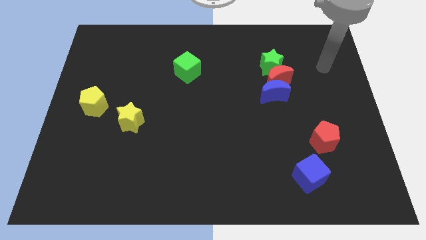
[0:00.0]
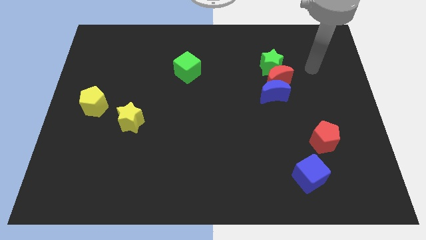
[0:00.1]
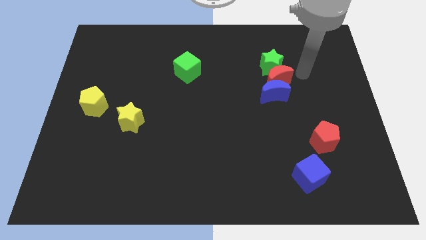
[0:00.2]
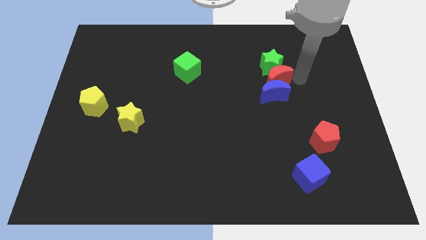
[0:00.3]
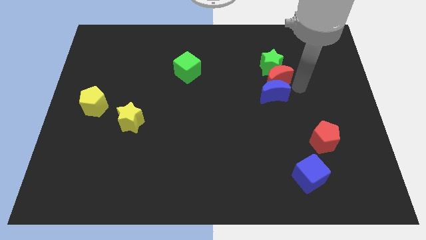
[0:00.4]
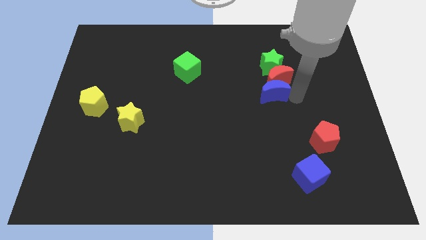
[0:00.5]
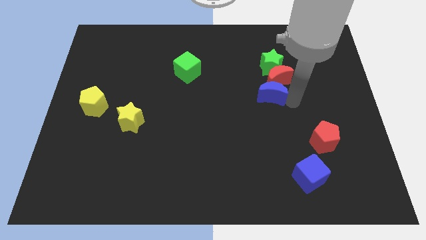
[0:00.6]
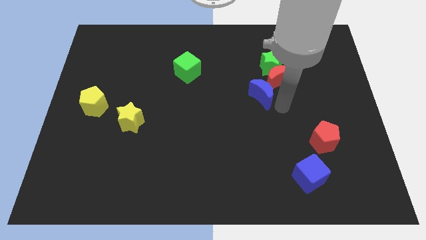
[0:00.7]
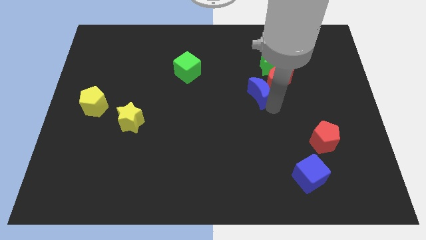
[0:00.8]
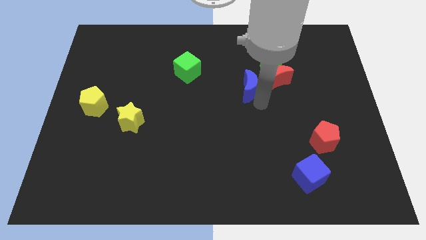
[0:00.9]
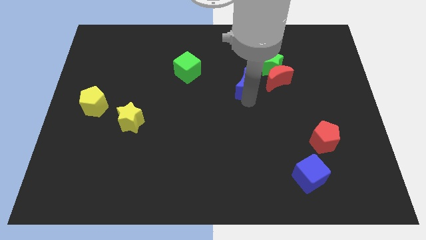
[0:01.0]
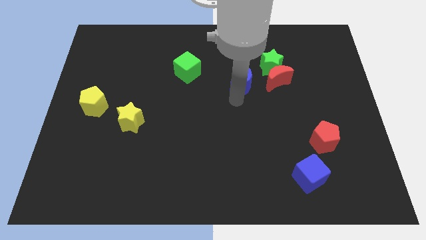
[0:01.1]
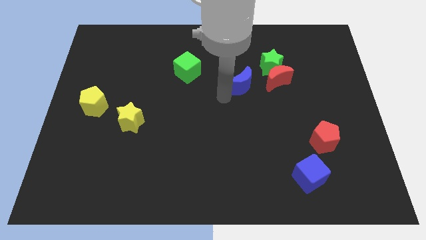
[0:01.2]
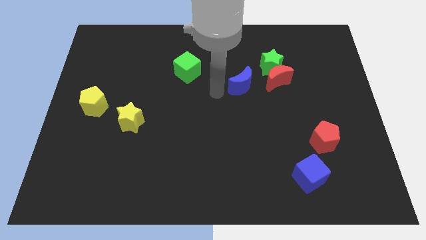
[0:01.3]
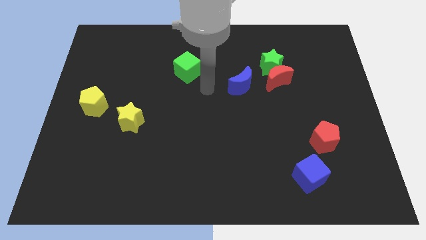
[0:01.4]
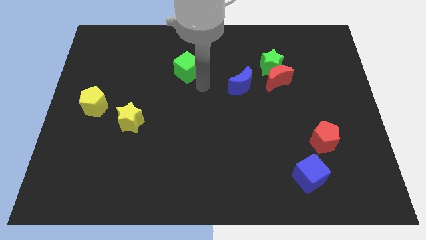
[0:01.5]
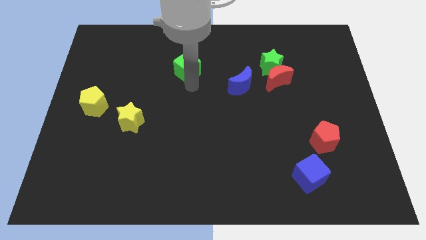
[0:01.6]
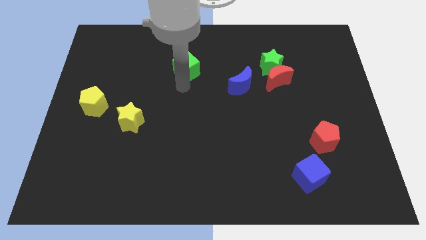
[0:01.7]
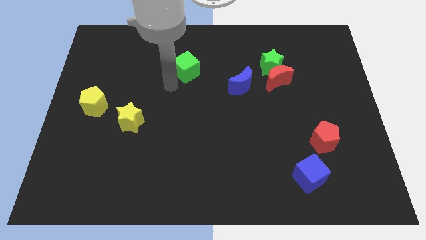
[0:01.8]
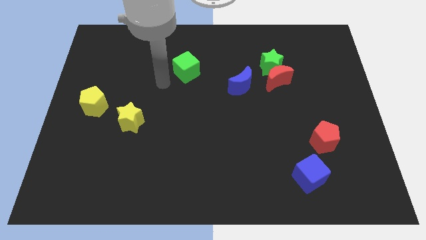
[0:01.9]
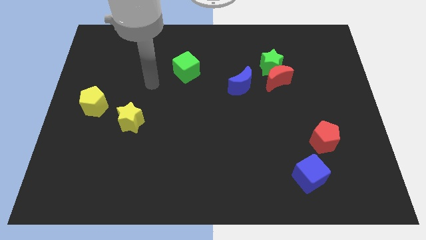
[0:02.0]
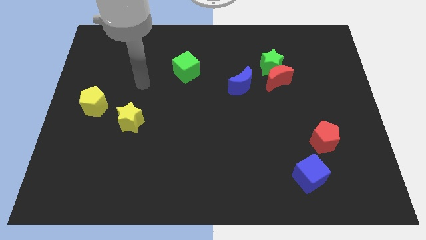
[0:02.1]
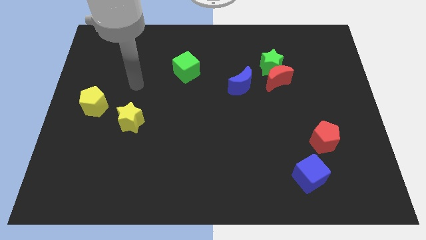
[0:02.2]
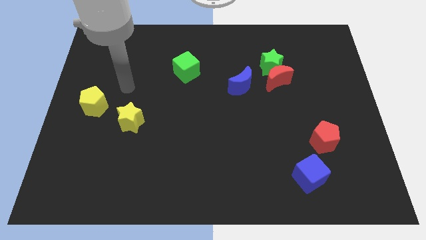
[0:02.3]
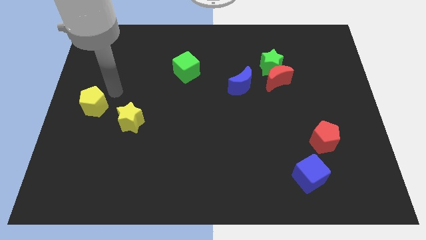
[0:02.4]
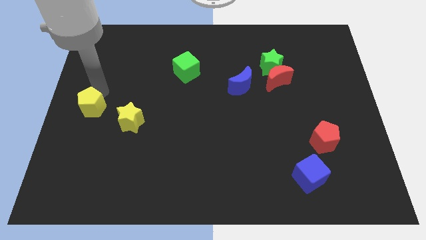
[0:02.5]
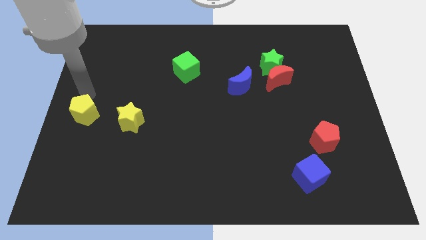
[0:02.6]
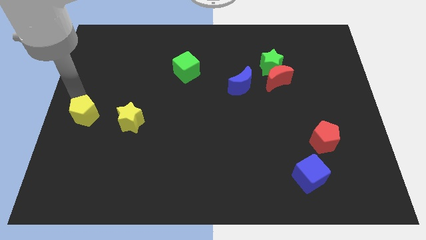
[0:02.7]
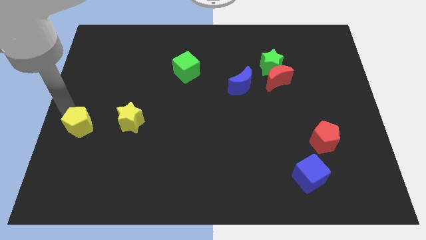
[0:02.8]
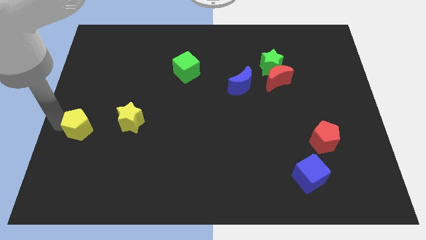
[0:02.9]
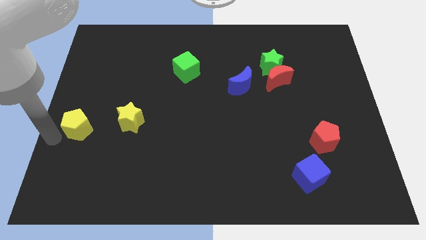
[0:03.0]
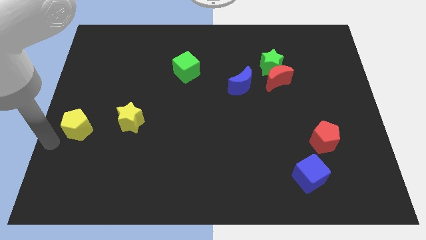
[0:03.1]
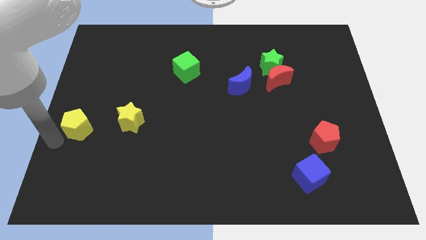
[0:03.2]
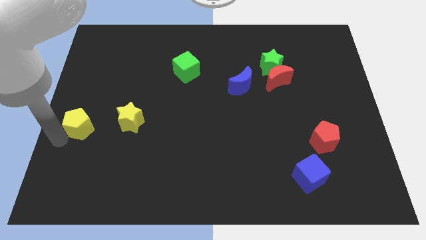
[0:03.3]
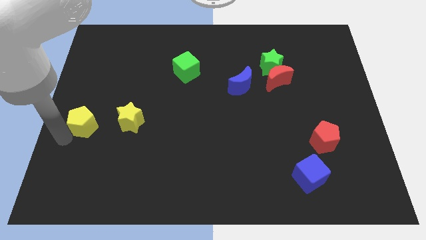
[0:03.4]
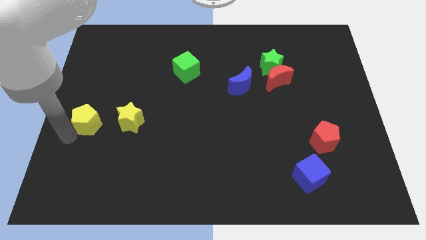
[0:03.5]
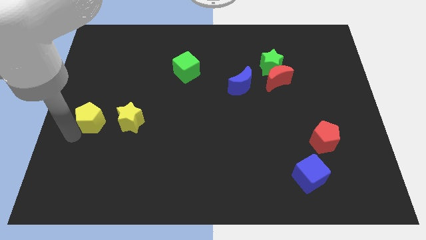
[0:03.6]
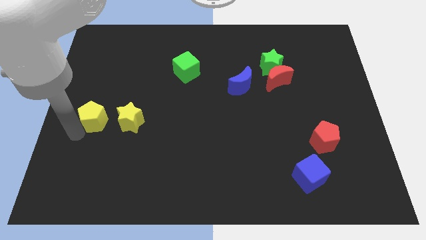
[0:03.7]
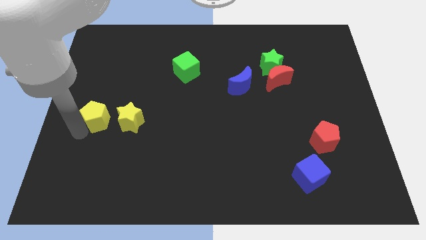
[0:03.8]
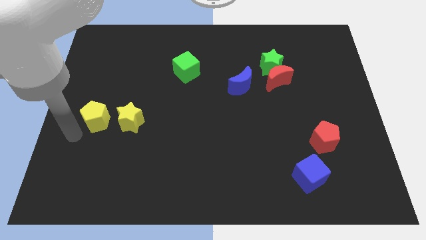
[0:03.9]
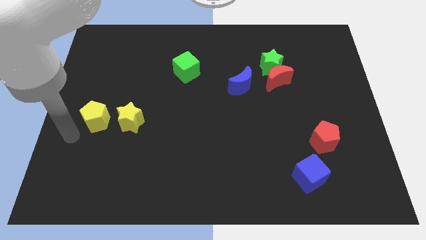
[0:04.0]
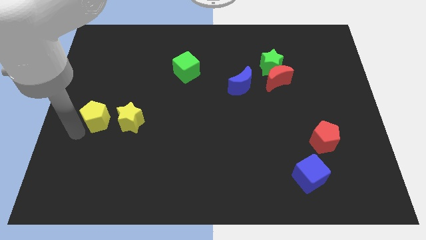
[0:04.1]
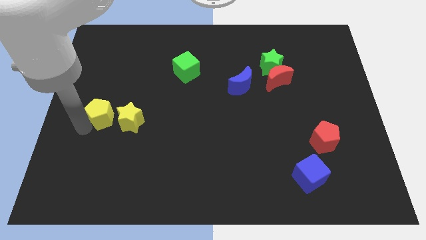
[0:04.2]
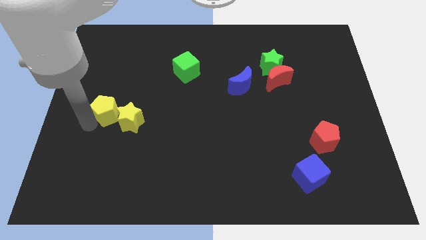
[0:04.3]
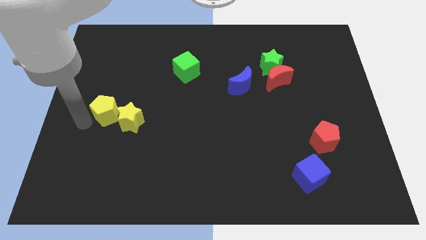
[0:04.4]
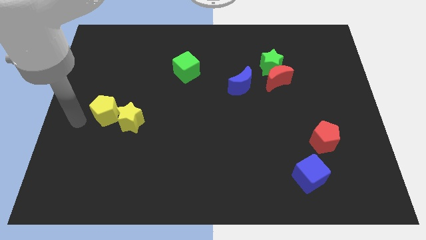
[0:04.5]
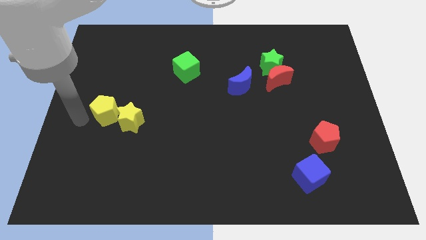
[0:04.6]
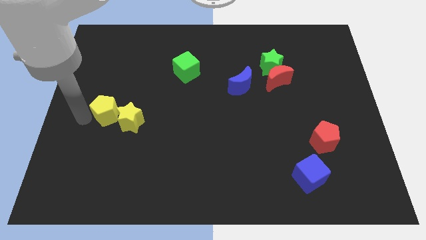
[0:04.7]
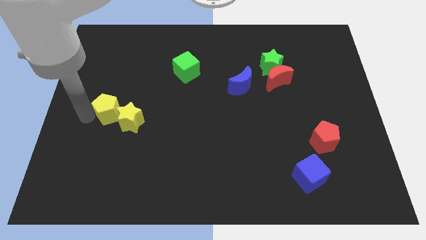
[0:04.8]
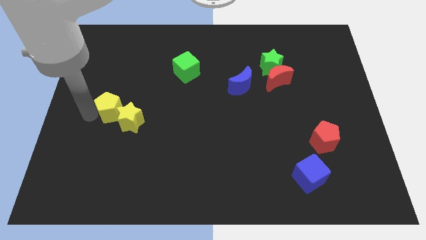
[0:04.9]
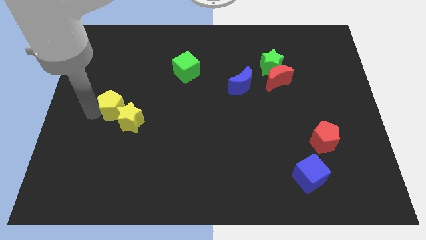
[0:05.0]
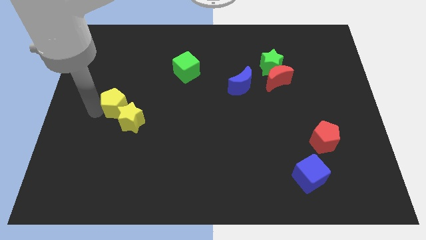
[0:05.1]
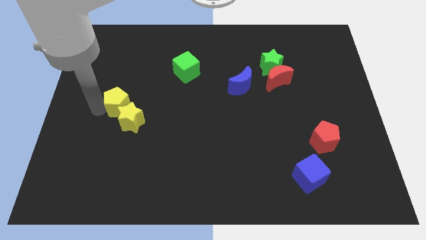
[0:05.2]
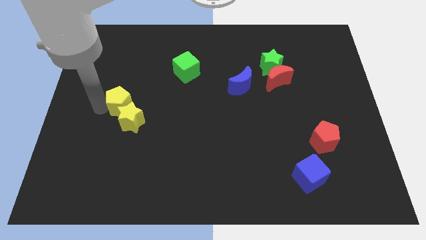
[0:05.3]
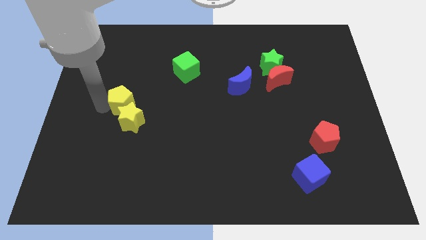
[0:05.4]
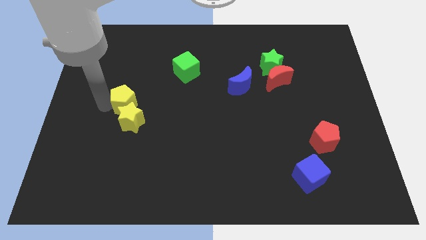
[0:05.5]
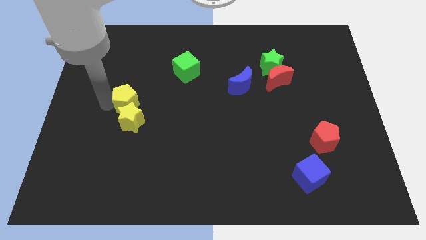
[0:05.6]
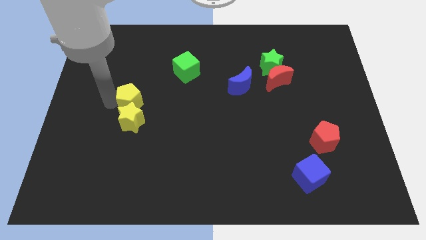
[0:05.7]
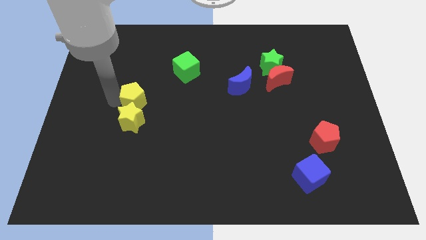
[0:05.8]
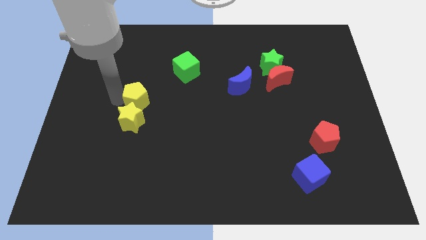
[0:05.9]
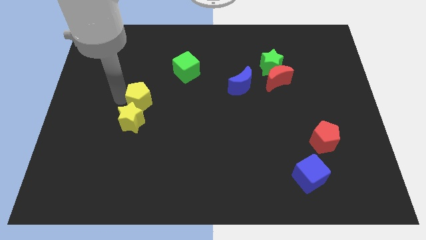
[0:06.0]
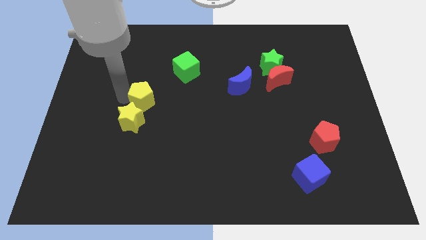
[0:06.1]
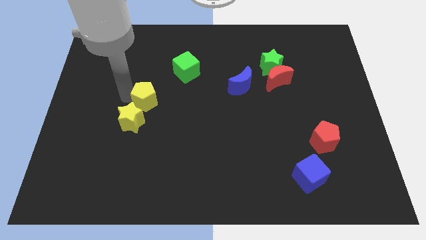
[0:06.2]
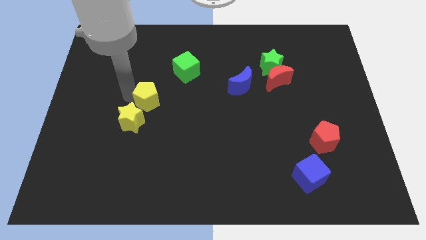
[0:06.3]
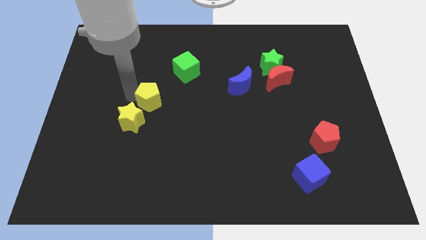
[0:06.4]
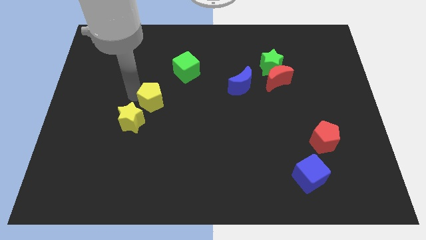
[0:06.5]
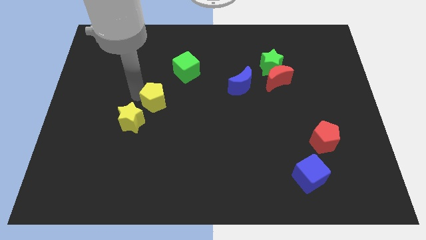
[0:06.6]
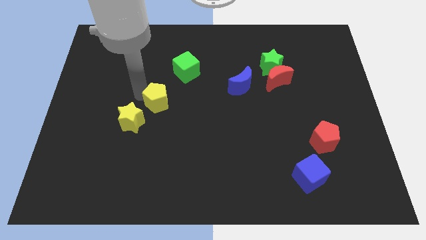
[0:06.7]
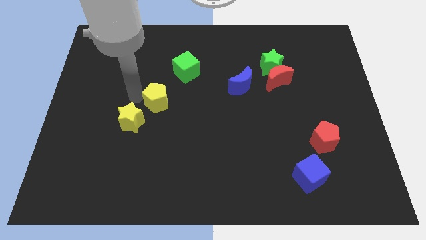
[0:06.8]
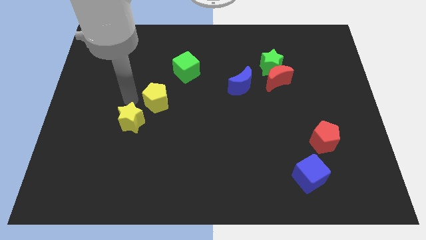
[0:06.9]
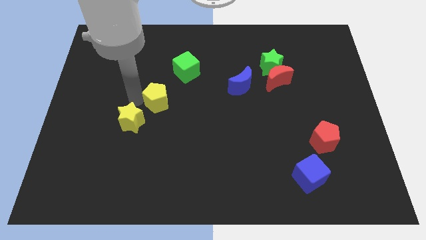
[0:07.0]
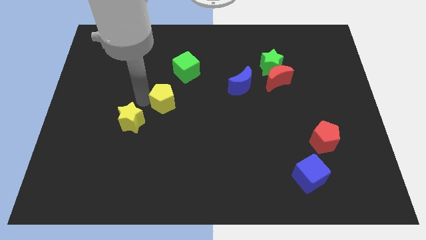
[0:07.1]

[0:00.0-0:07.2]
put the yellow pentagon to the middle of the board
